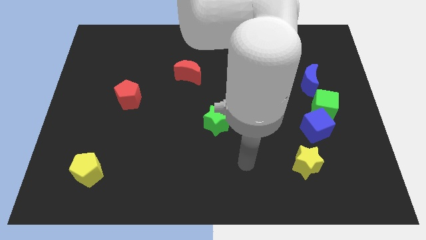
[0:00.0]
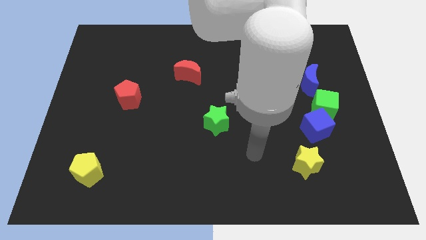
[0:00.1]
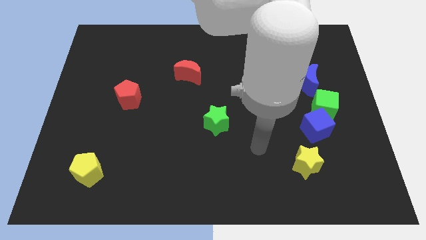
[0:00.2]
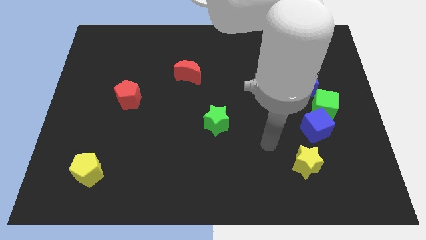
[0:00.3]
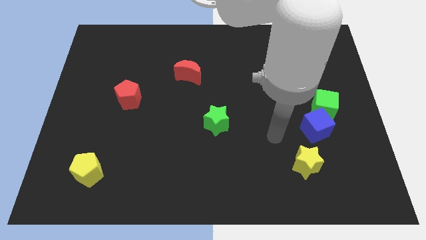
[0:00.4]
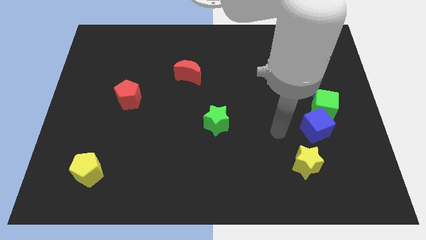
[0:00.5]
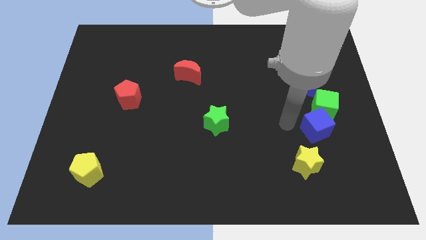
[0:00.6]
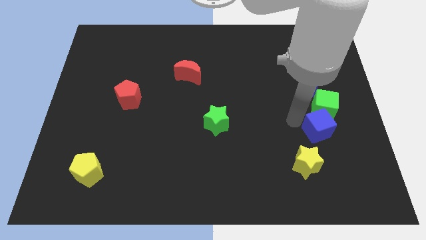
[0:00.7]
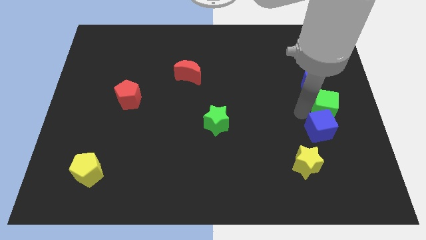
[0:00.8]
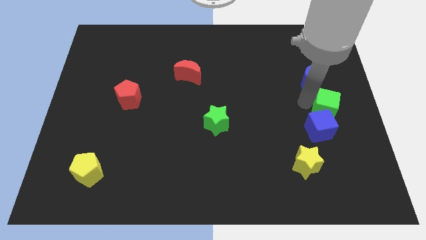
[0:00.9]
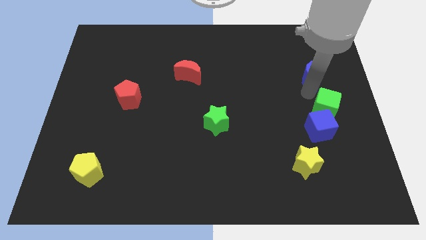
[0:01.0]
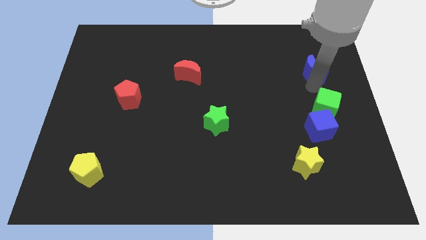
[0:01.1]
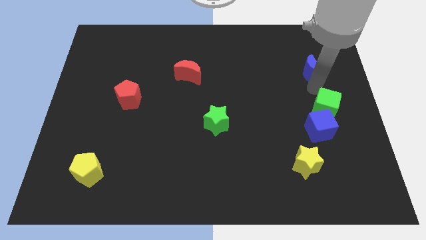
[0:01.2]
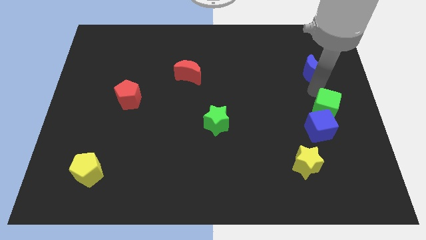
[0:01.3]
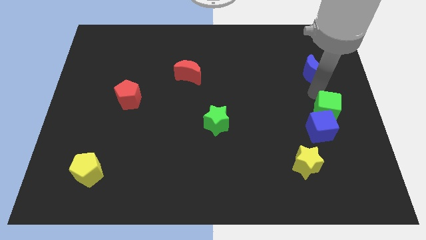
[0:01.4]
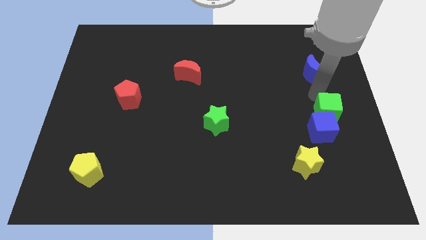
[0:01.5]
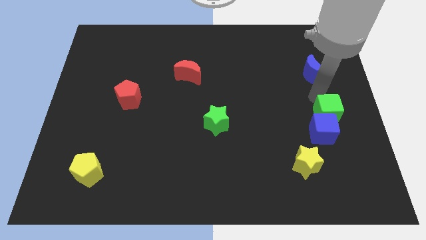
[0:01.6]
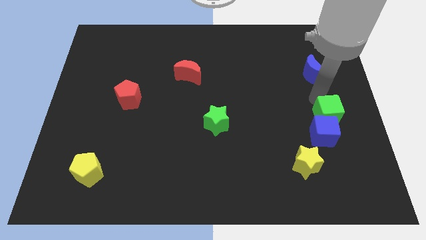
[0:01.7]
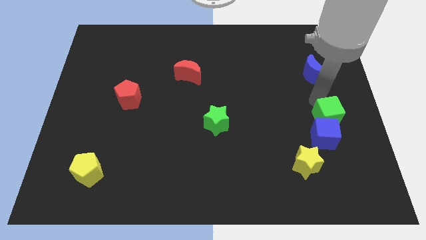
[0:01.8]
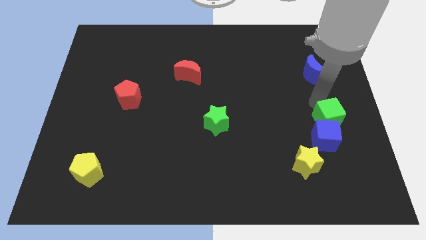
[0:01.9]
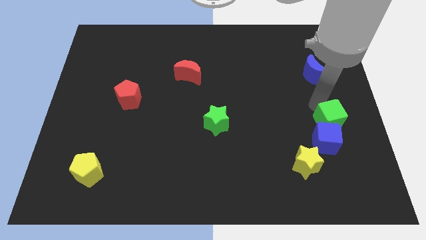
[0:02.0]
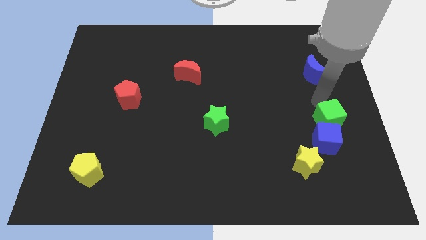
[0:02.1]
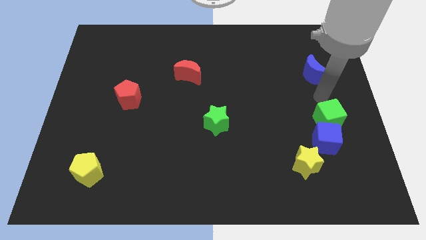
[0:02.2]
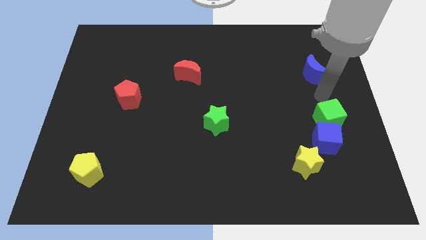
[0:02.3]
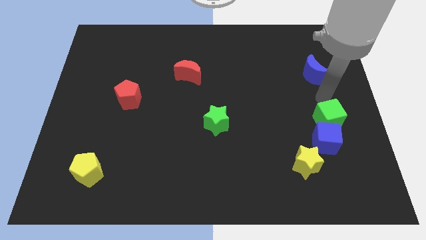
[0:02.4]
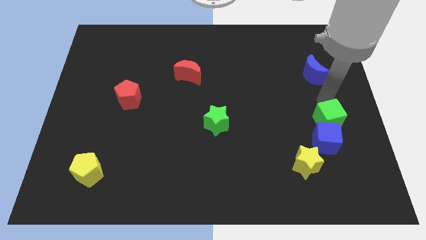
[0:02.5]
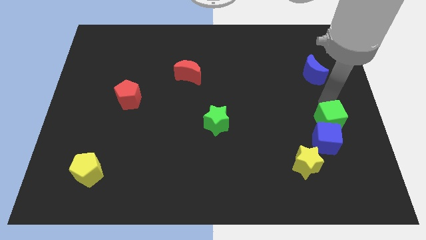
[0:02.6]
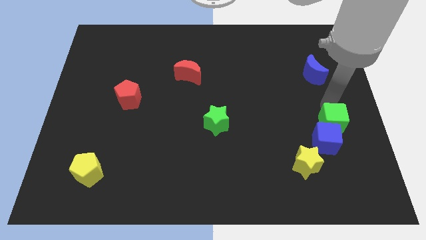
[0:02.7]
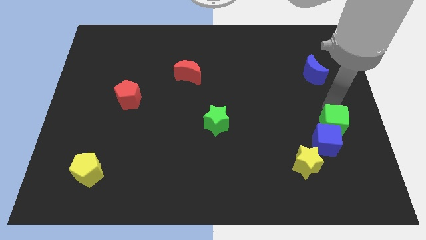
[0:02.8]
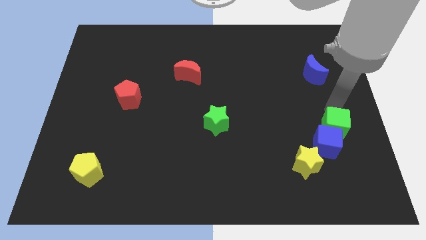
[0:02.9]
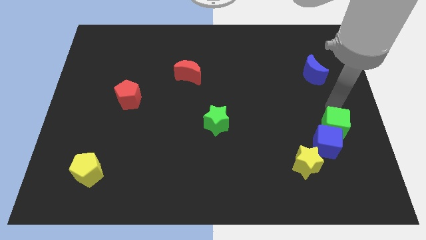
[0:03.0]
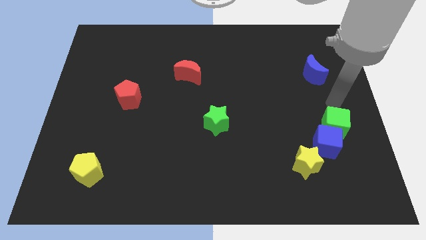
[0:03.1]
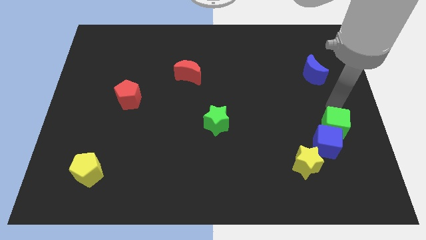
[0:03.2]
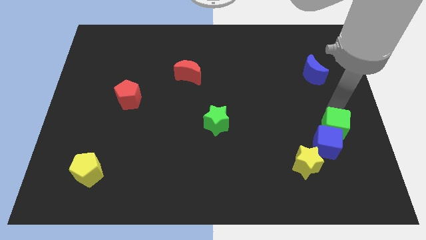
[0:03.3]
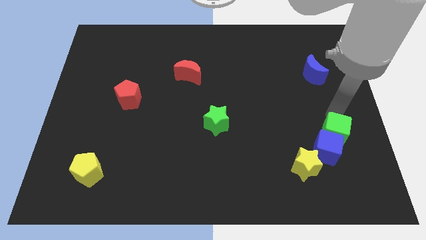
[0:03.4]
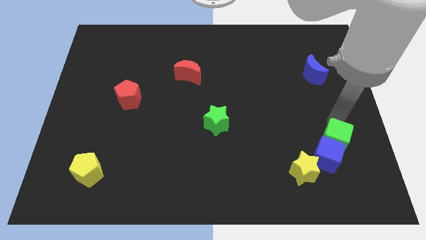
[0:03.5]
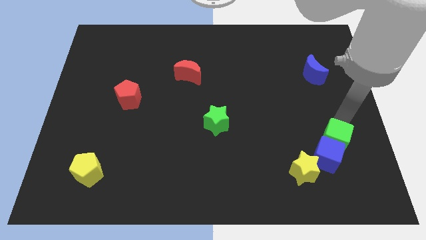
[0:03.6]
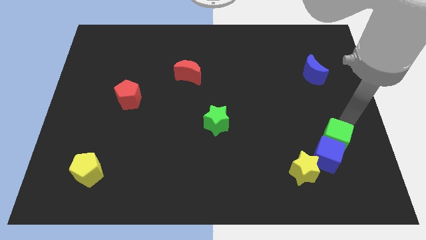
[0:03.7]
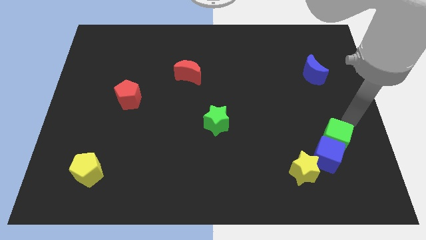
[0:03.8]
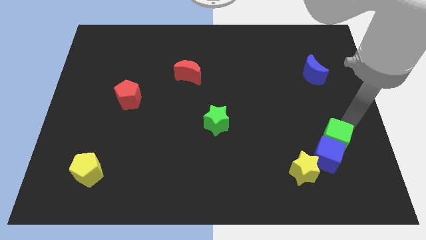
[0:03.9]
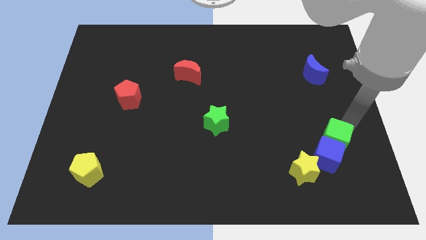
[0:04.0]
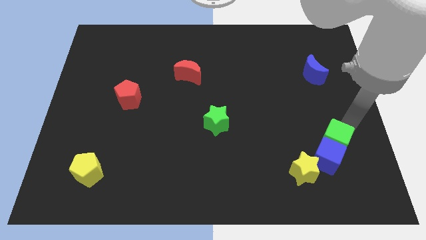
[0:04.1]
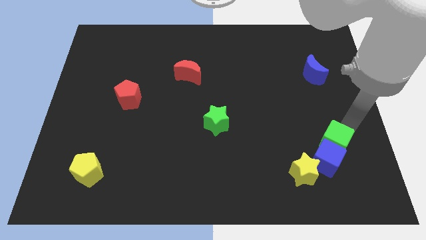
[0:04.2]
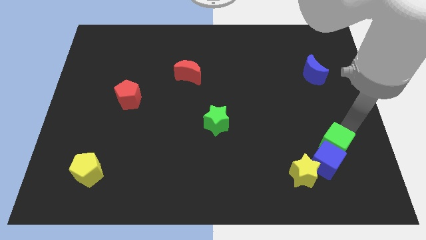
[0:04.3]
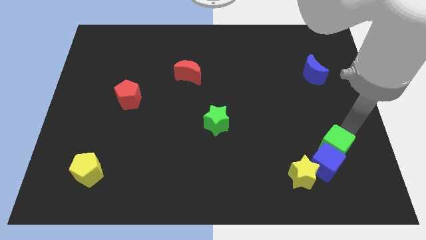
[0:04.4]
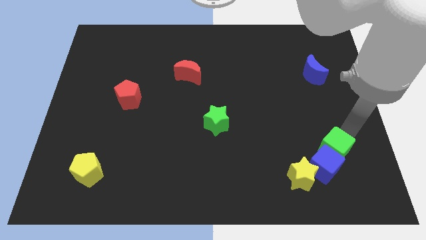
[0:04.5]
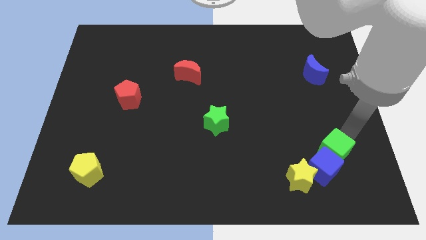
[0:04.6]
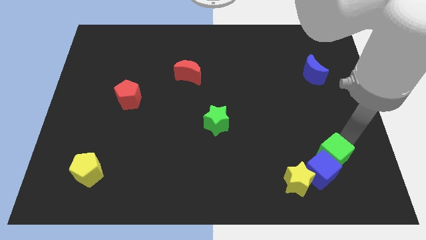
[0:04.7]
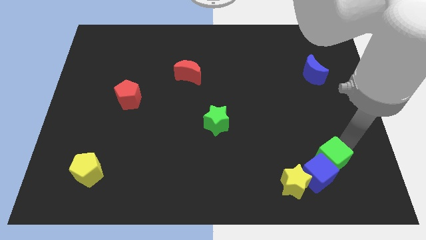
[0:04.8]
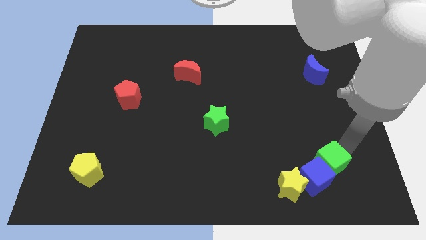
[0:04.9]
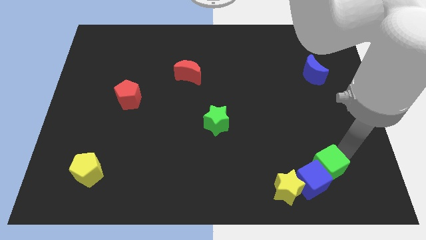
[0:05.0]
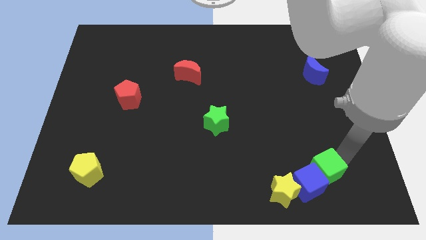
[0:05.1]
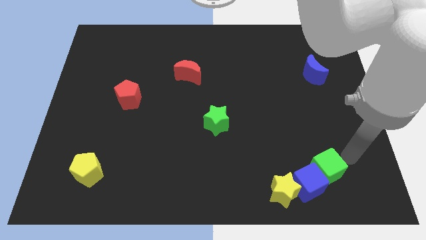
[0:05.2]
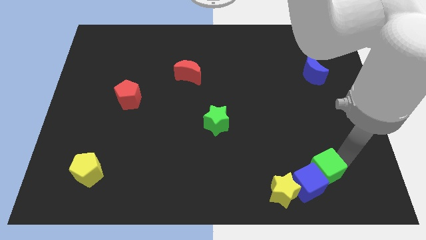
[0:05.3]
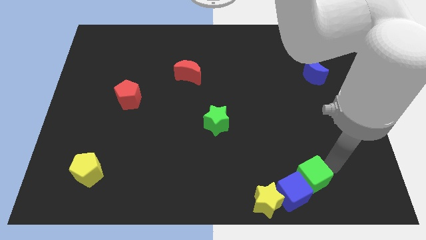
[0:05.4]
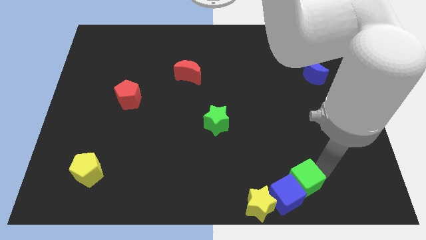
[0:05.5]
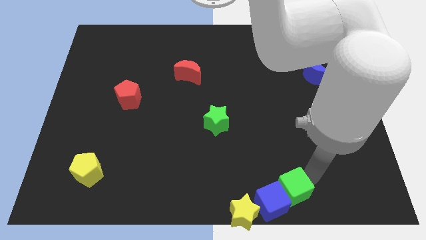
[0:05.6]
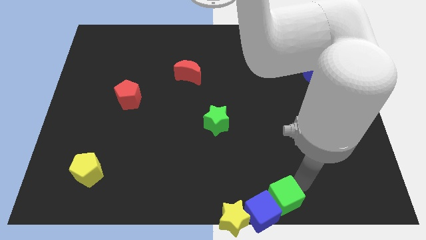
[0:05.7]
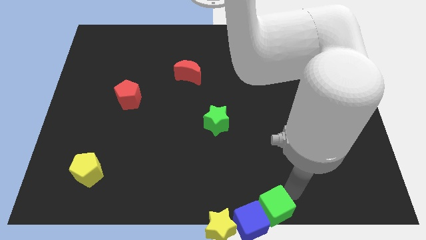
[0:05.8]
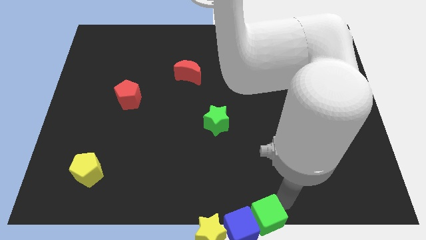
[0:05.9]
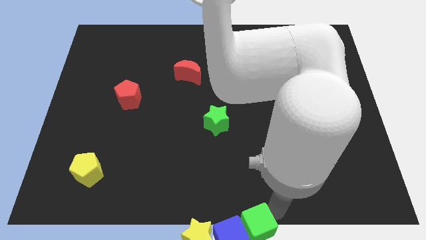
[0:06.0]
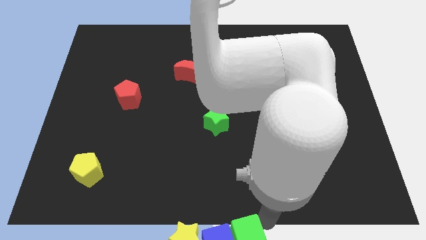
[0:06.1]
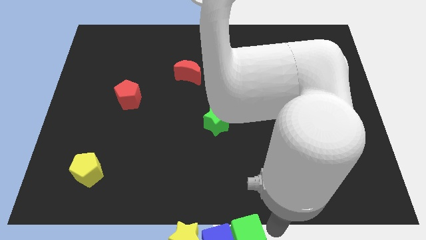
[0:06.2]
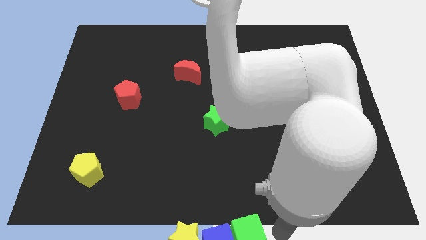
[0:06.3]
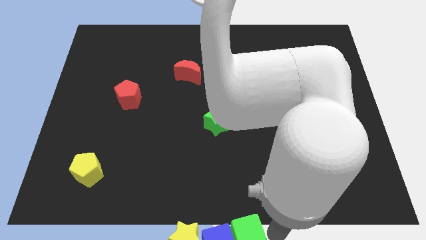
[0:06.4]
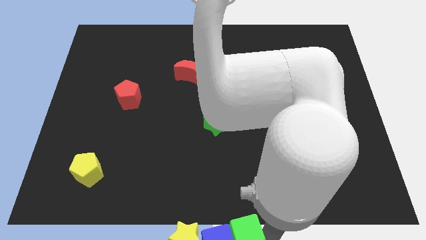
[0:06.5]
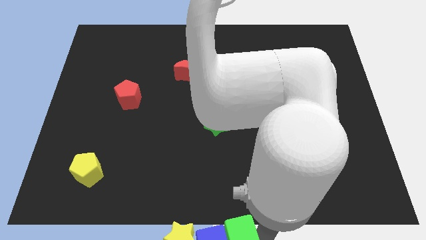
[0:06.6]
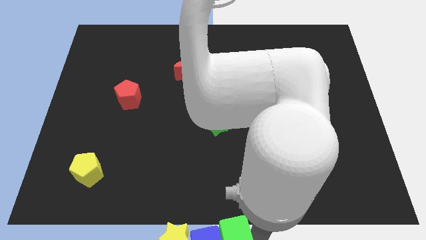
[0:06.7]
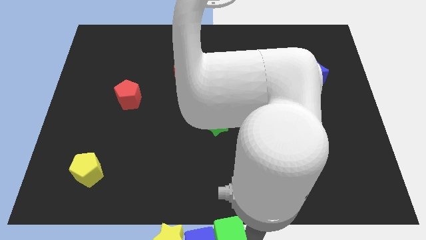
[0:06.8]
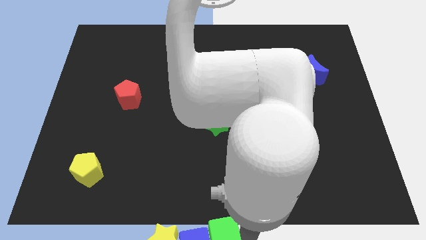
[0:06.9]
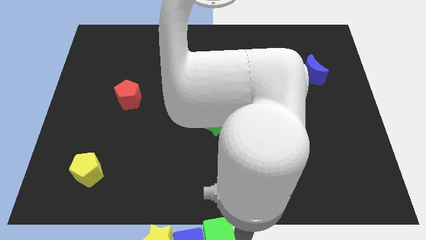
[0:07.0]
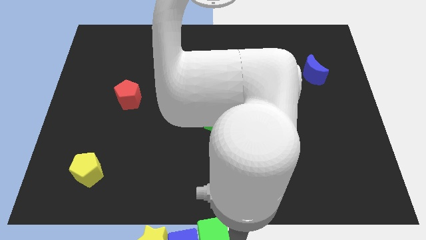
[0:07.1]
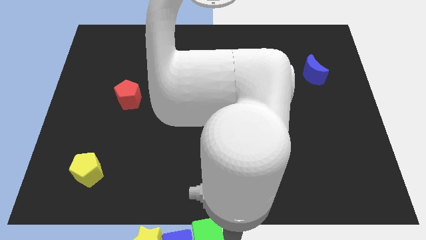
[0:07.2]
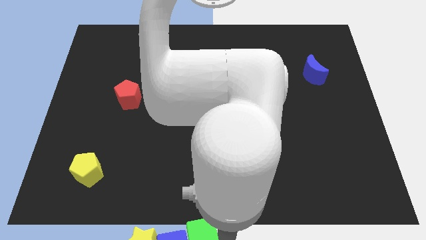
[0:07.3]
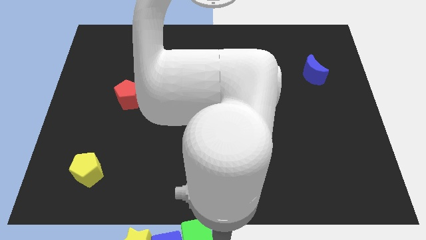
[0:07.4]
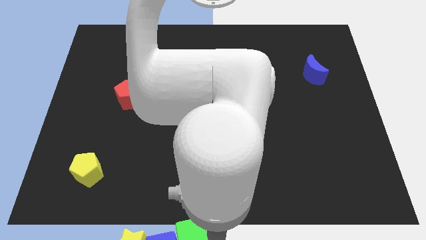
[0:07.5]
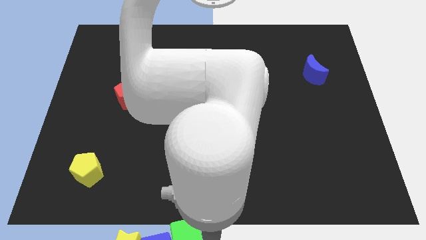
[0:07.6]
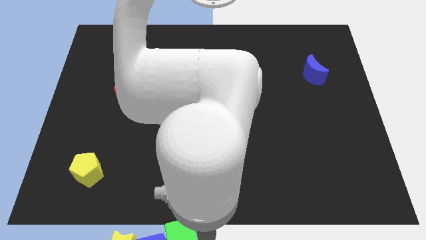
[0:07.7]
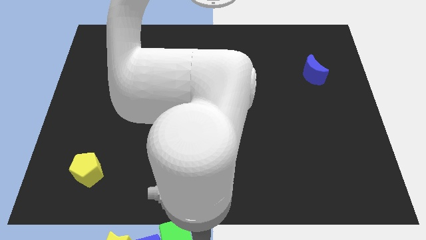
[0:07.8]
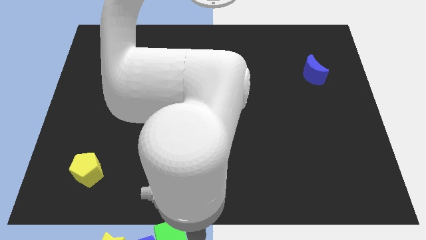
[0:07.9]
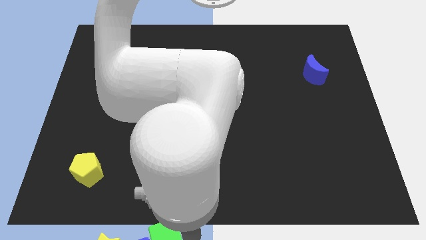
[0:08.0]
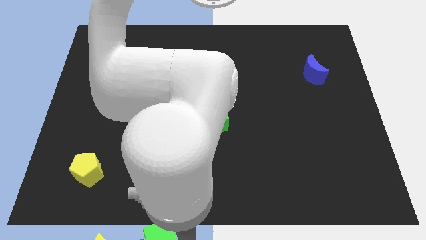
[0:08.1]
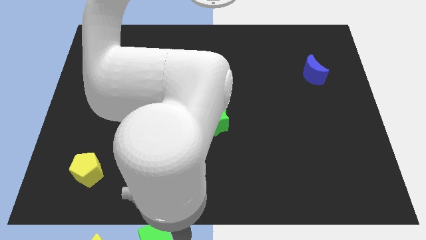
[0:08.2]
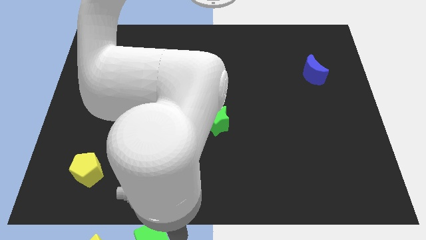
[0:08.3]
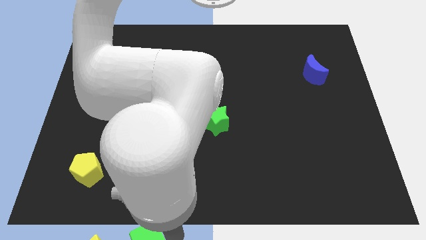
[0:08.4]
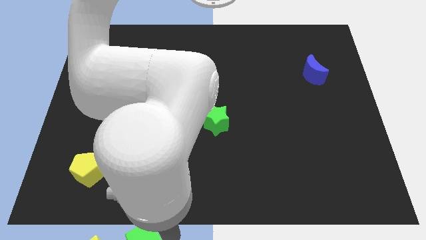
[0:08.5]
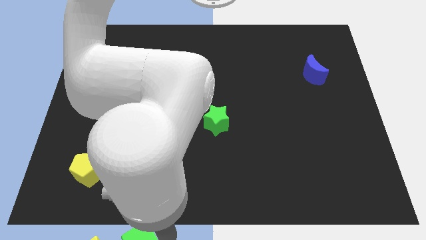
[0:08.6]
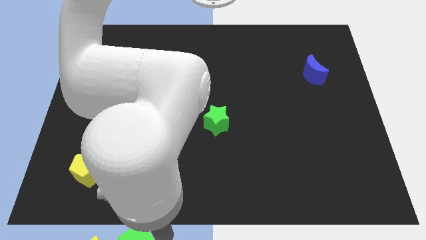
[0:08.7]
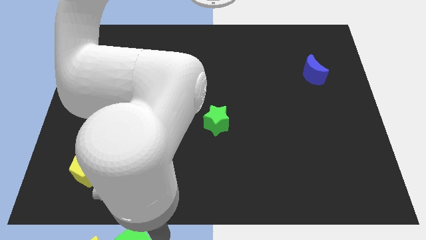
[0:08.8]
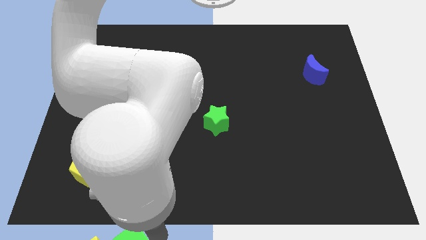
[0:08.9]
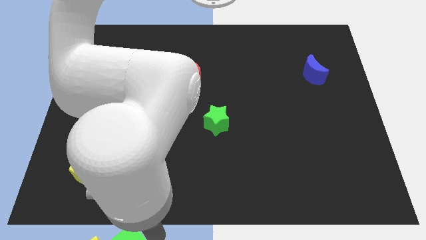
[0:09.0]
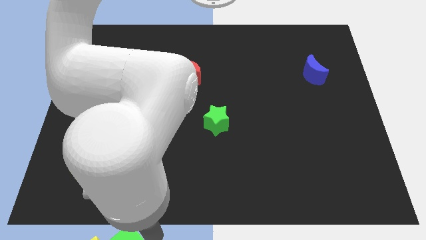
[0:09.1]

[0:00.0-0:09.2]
move the green cube next to the yellow star
